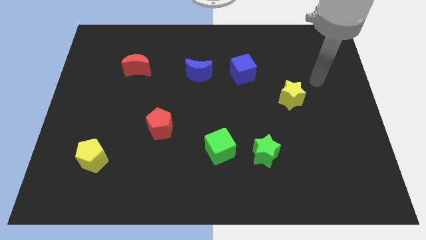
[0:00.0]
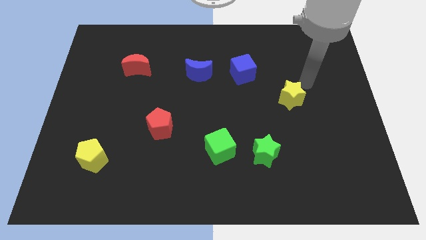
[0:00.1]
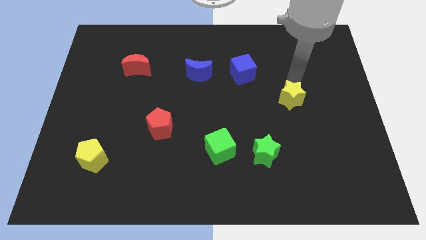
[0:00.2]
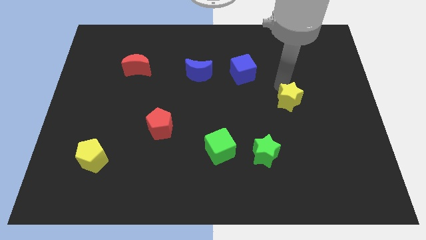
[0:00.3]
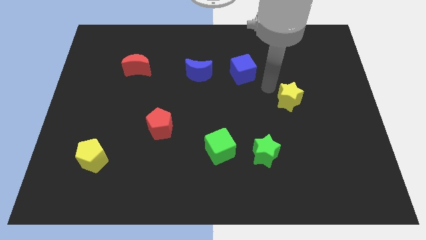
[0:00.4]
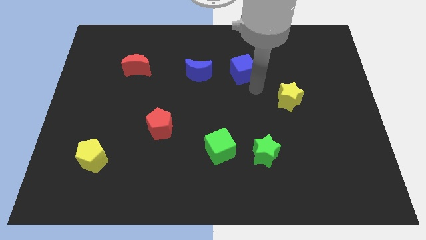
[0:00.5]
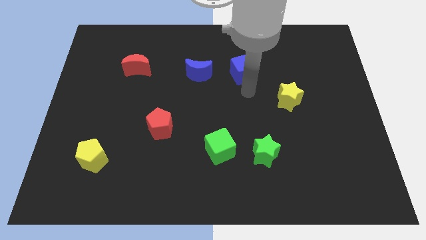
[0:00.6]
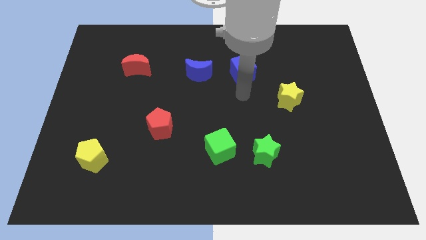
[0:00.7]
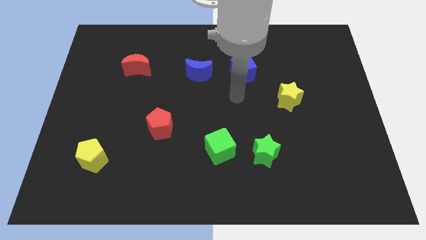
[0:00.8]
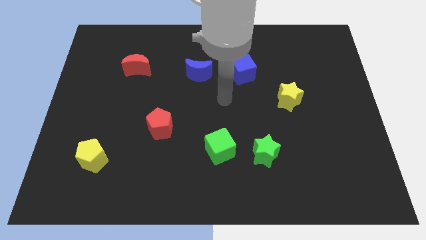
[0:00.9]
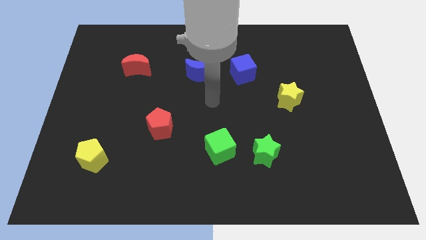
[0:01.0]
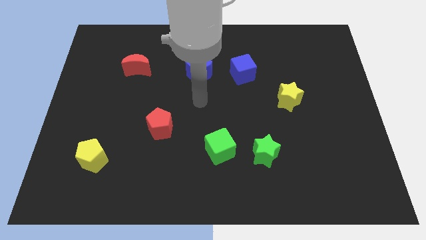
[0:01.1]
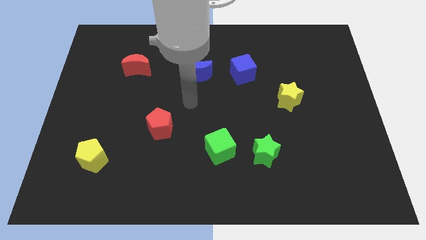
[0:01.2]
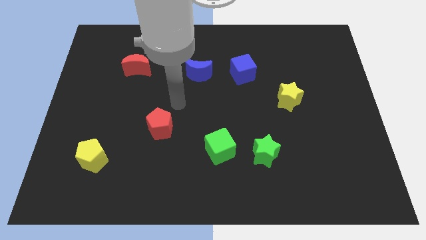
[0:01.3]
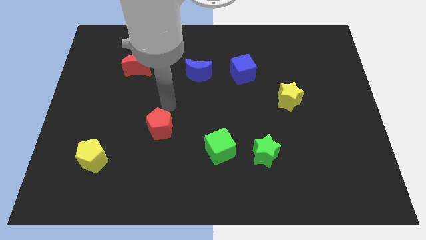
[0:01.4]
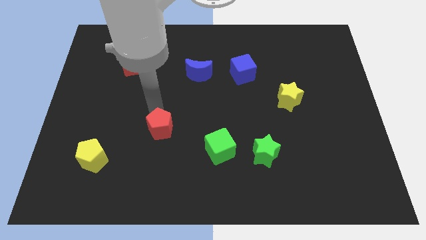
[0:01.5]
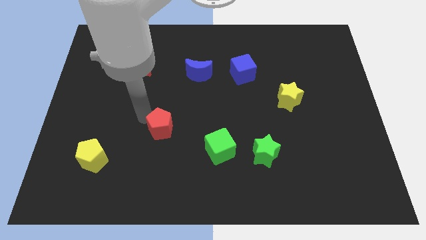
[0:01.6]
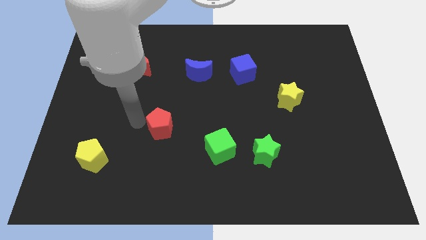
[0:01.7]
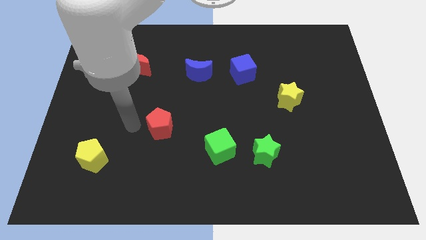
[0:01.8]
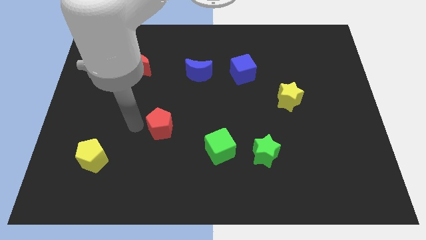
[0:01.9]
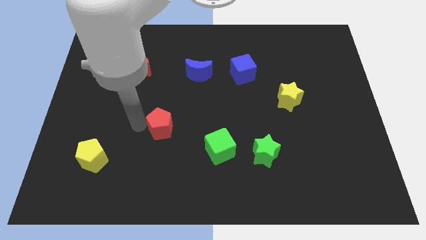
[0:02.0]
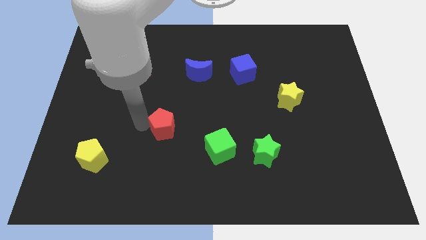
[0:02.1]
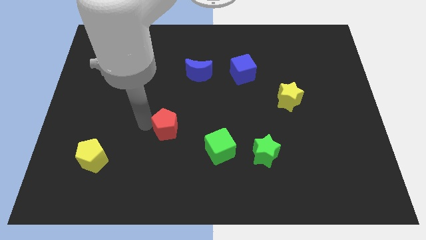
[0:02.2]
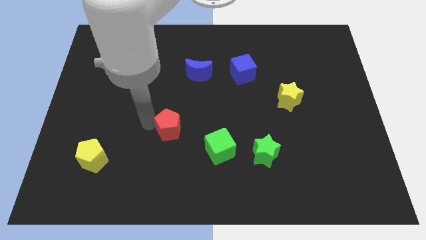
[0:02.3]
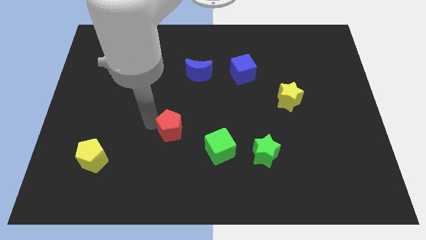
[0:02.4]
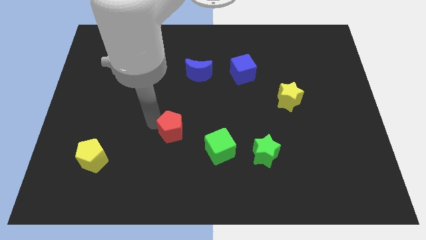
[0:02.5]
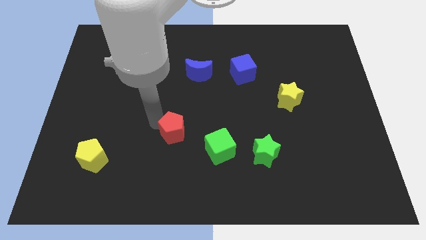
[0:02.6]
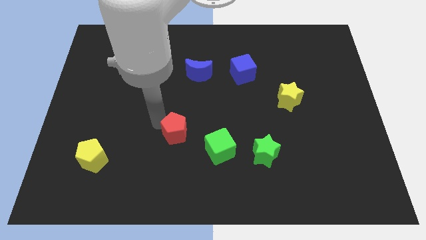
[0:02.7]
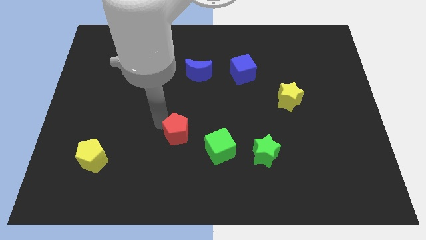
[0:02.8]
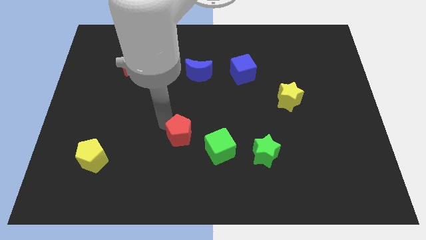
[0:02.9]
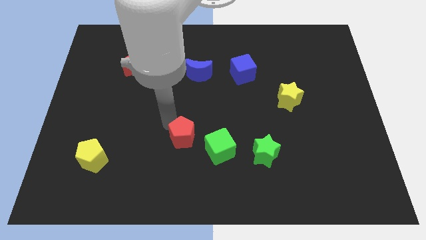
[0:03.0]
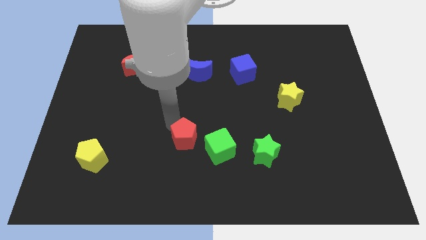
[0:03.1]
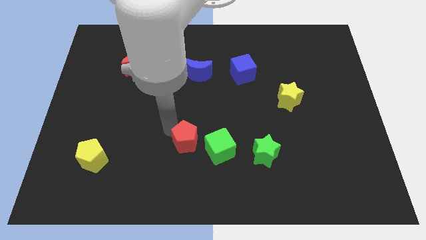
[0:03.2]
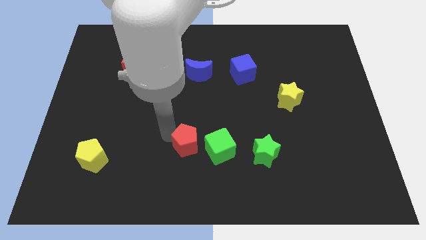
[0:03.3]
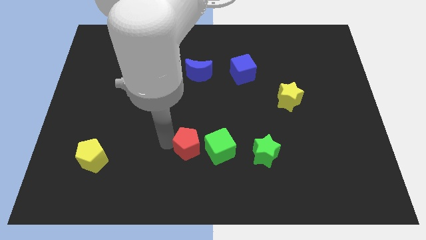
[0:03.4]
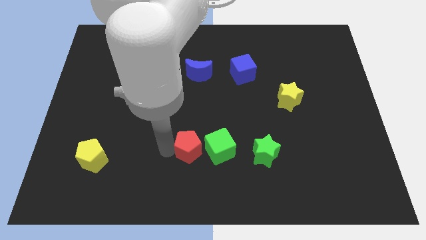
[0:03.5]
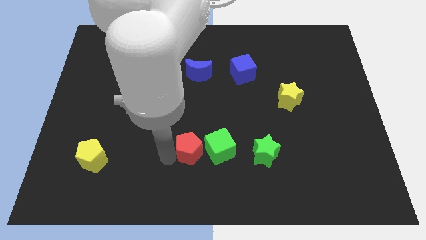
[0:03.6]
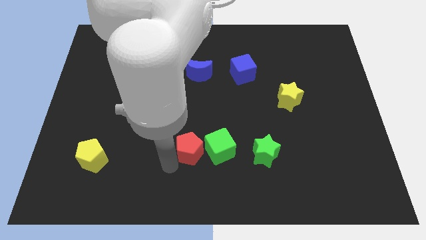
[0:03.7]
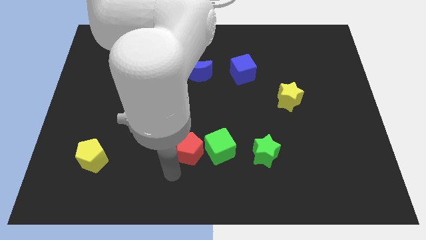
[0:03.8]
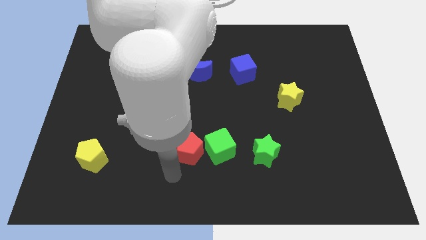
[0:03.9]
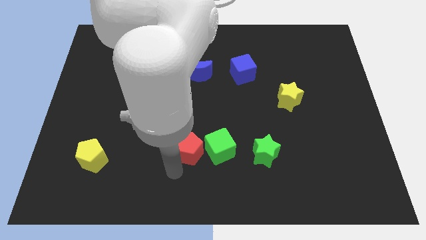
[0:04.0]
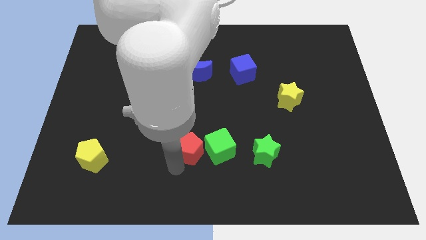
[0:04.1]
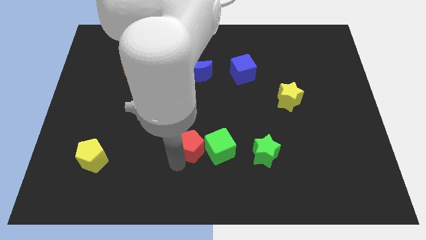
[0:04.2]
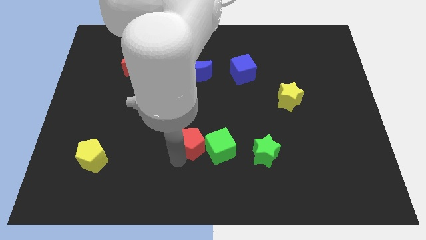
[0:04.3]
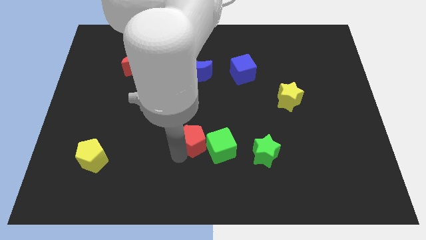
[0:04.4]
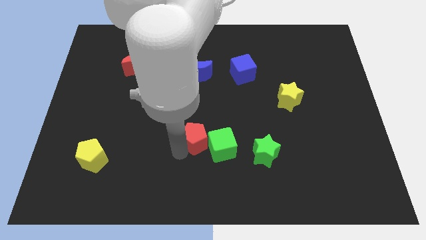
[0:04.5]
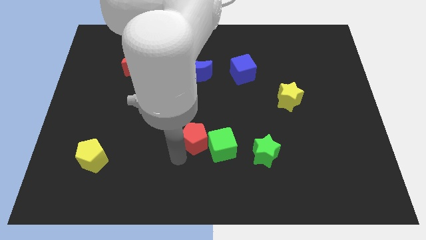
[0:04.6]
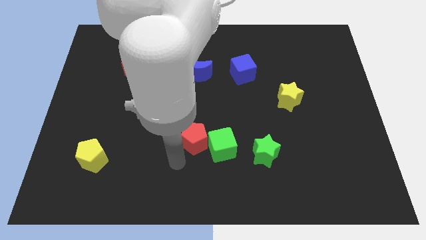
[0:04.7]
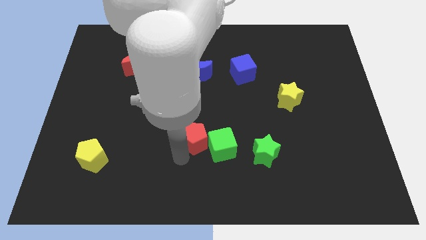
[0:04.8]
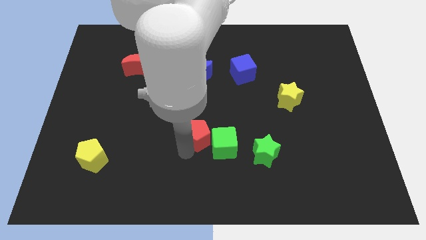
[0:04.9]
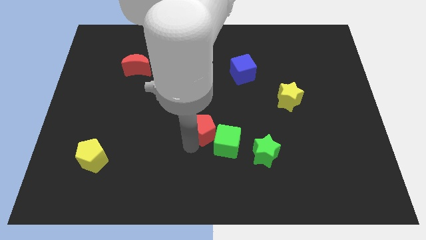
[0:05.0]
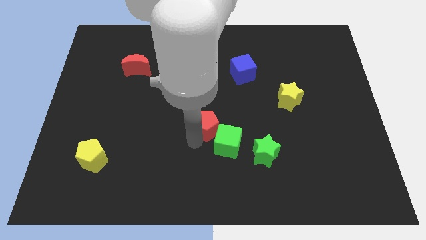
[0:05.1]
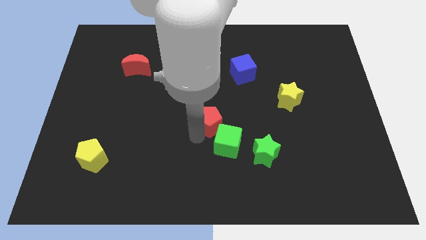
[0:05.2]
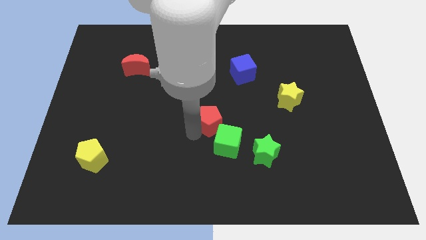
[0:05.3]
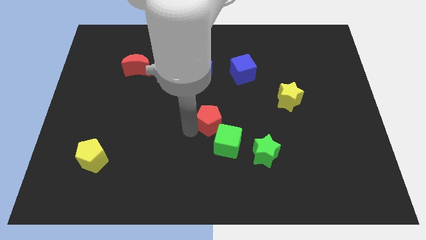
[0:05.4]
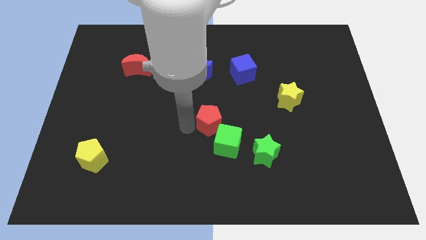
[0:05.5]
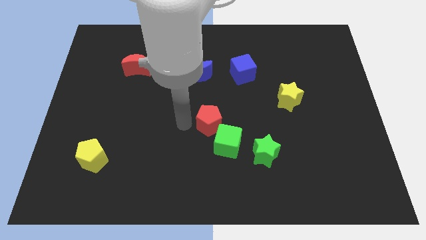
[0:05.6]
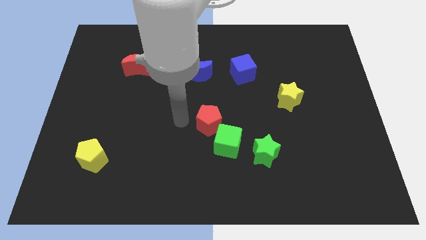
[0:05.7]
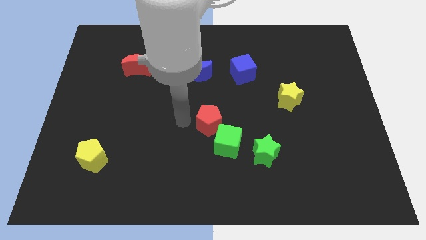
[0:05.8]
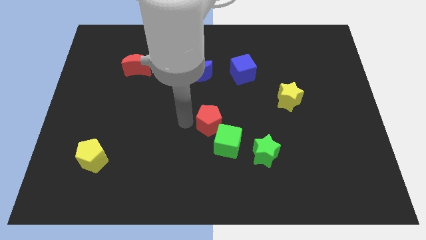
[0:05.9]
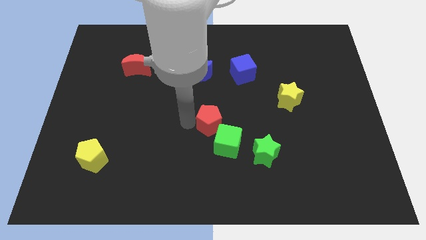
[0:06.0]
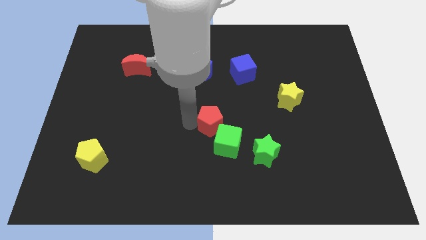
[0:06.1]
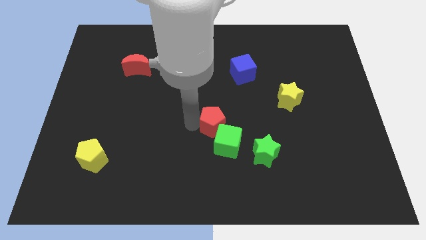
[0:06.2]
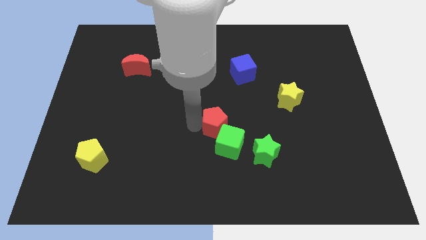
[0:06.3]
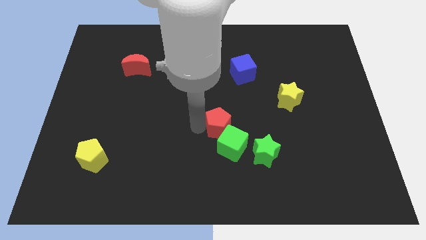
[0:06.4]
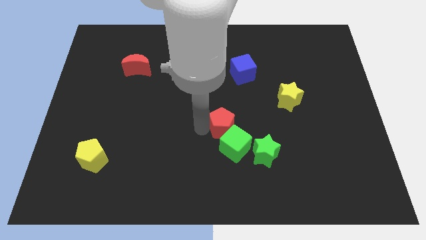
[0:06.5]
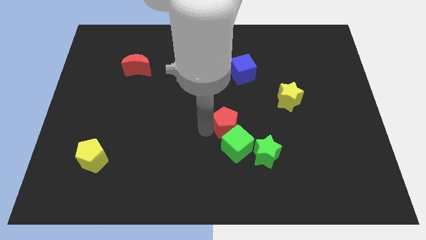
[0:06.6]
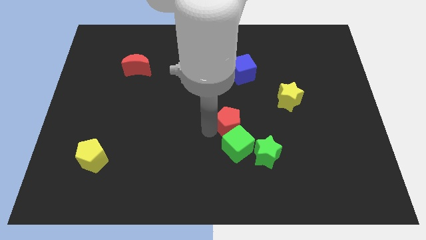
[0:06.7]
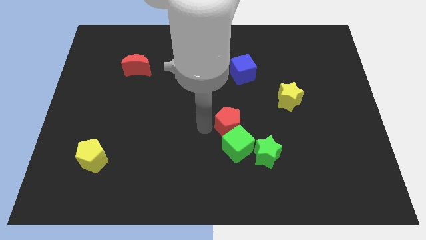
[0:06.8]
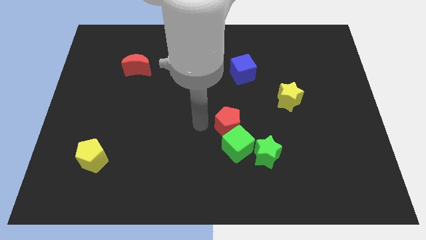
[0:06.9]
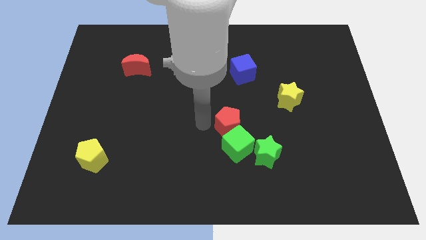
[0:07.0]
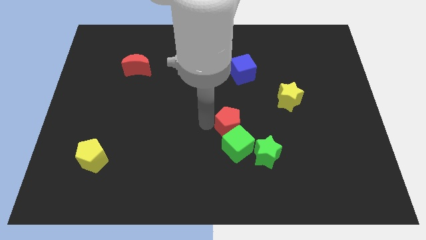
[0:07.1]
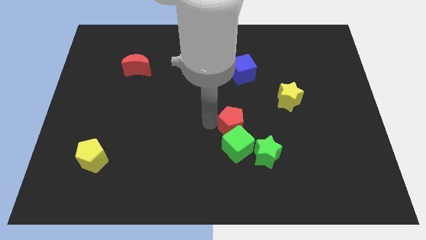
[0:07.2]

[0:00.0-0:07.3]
push the red pentagon diagonally up and to the right of the green cube
